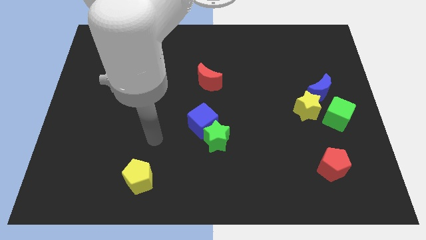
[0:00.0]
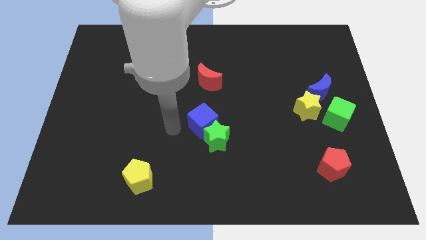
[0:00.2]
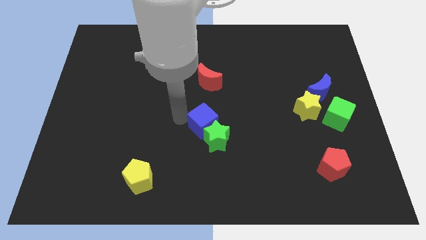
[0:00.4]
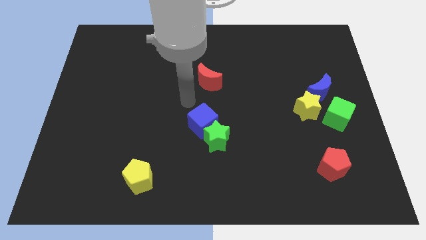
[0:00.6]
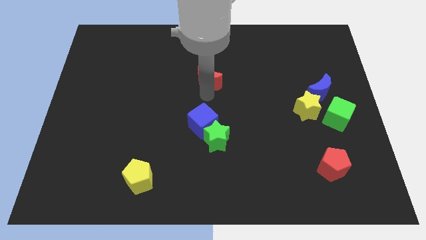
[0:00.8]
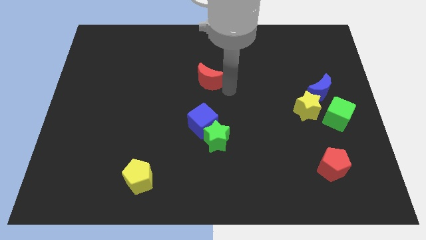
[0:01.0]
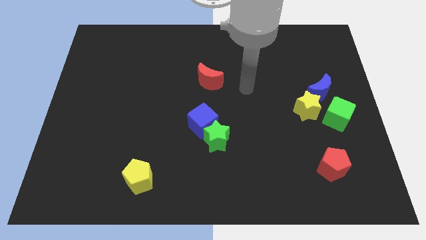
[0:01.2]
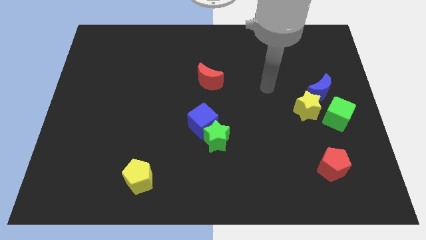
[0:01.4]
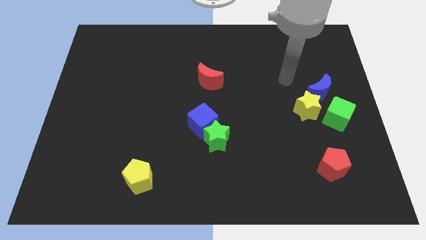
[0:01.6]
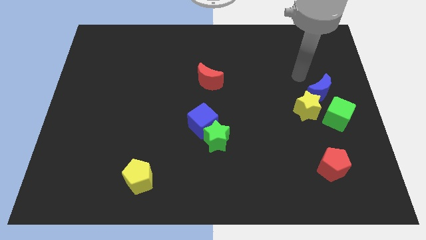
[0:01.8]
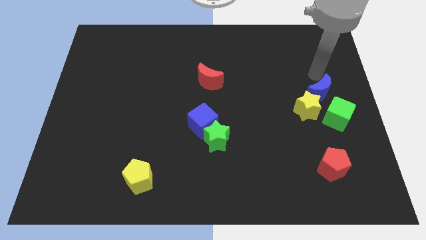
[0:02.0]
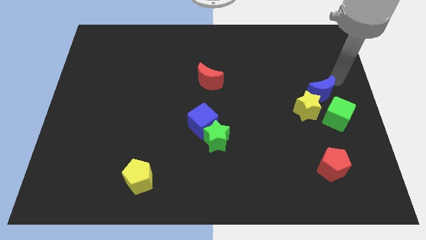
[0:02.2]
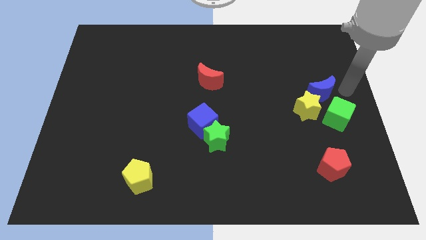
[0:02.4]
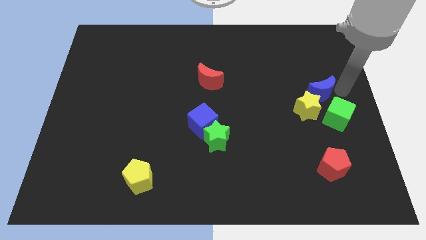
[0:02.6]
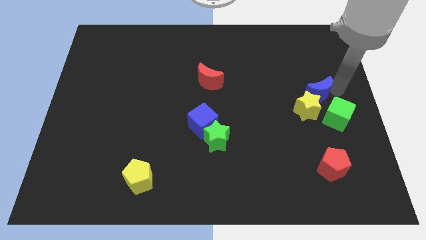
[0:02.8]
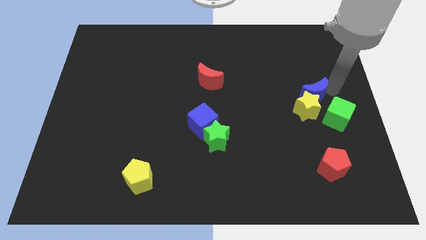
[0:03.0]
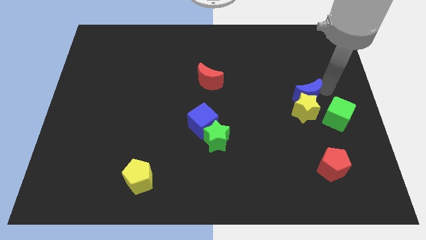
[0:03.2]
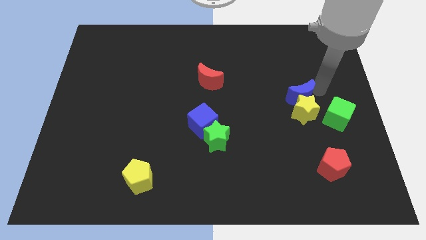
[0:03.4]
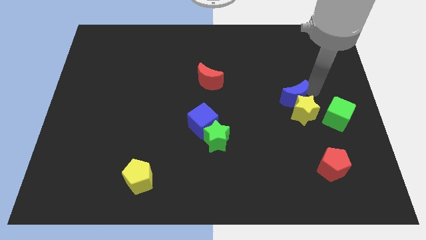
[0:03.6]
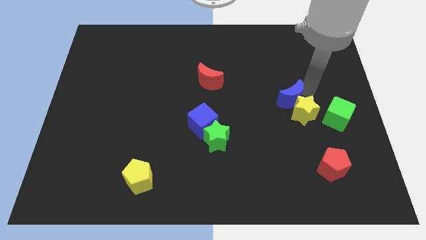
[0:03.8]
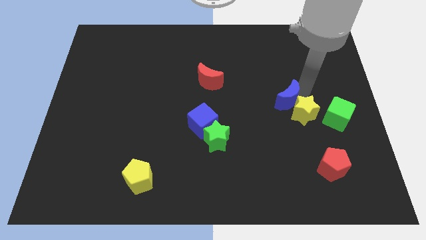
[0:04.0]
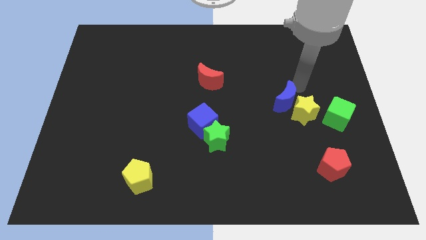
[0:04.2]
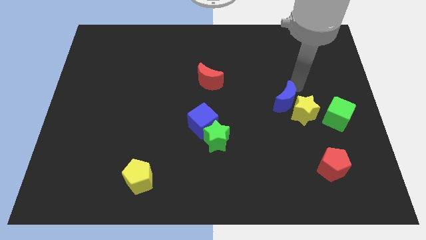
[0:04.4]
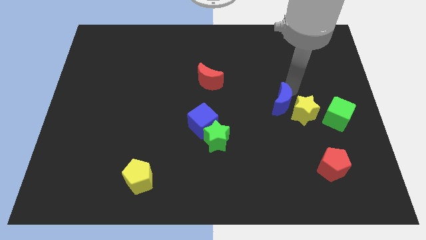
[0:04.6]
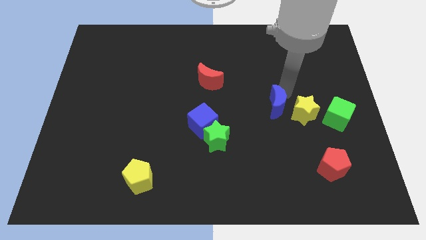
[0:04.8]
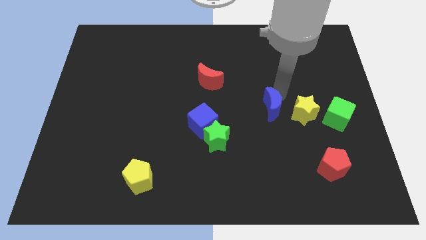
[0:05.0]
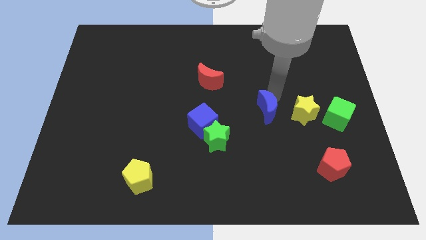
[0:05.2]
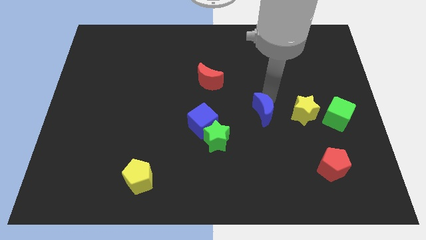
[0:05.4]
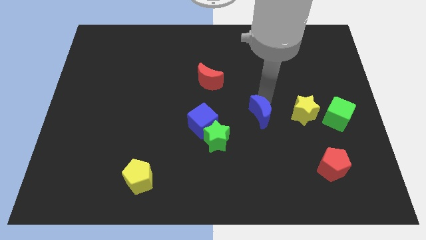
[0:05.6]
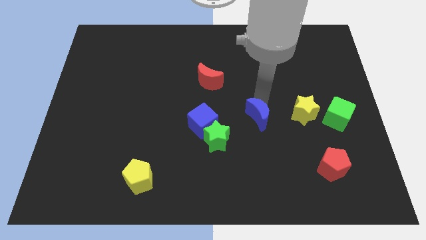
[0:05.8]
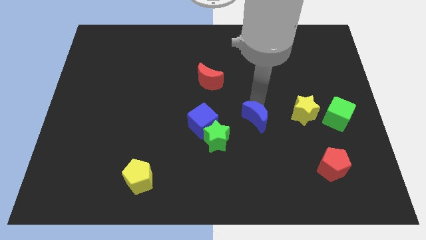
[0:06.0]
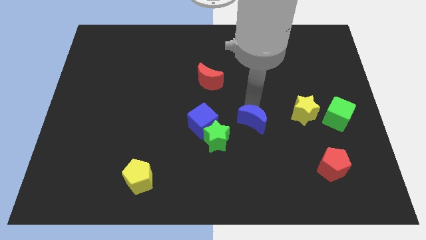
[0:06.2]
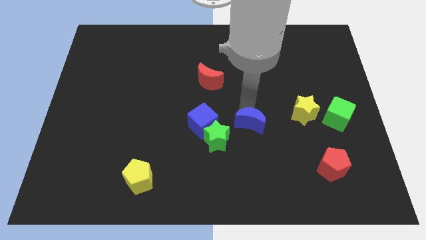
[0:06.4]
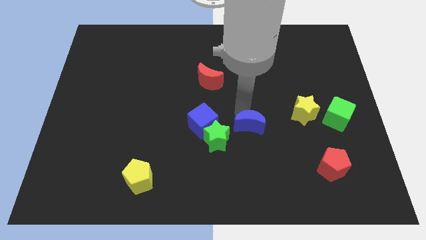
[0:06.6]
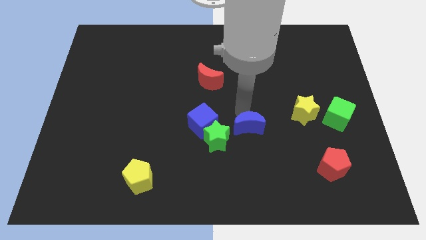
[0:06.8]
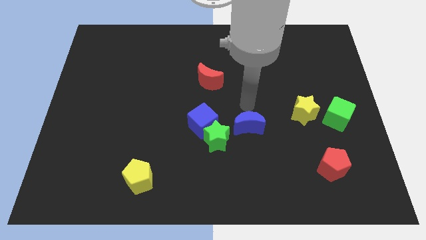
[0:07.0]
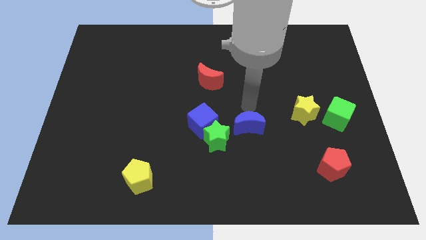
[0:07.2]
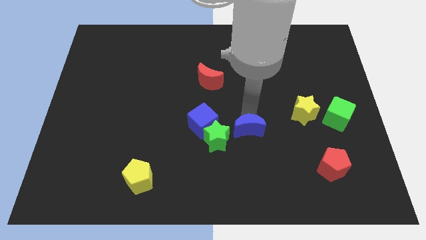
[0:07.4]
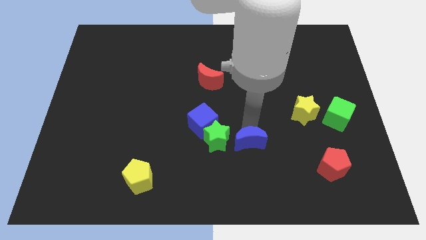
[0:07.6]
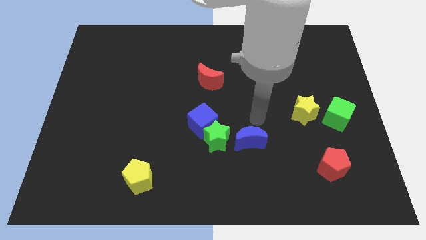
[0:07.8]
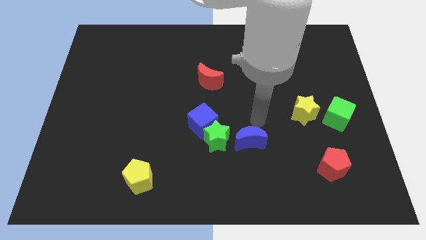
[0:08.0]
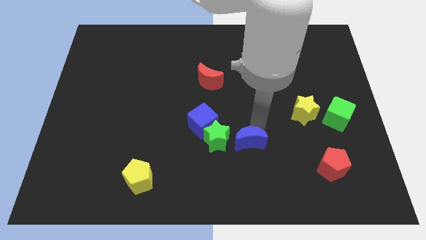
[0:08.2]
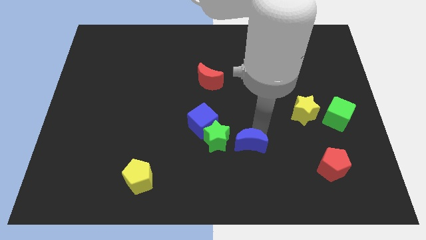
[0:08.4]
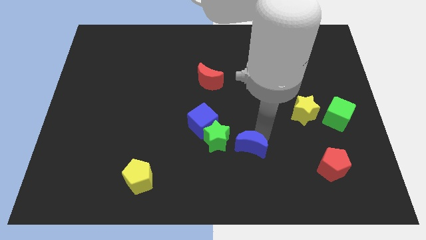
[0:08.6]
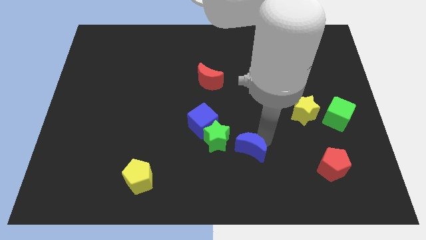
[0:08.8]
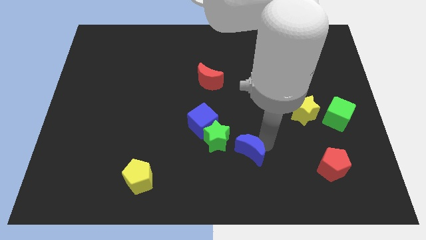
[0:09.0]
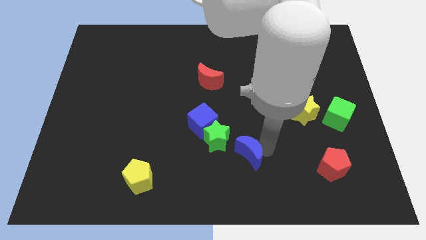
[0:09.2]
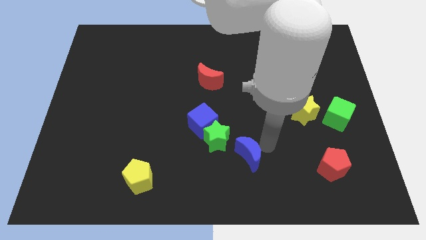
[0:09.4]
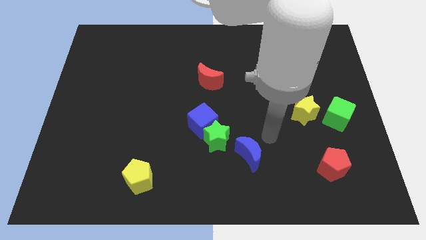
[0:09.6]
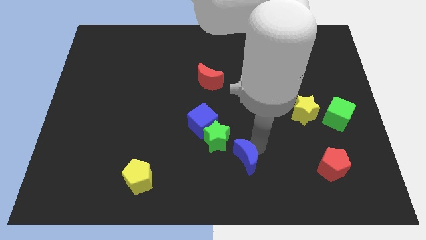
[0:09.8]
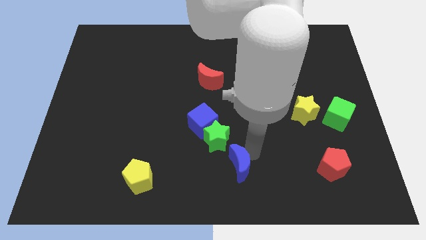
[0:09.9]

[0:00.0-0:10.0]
push the blue moon below the green star

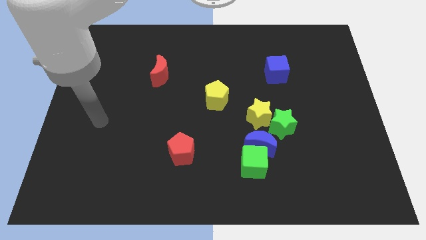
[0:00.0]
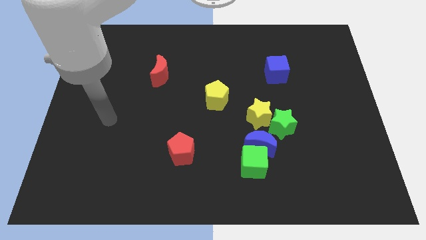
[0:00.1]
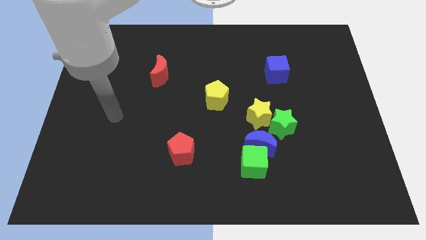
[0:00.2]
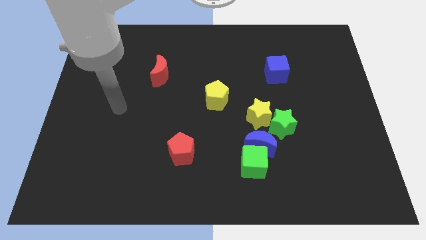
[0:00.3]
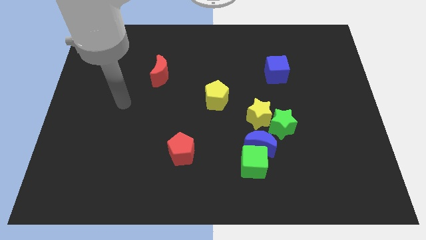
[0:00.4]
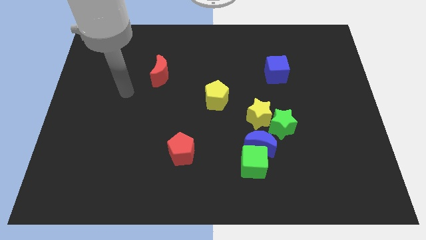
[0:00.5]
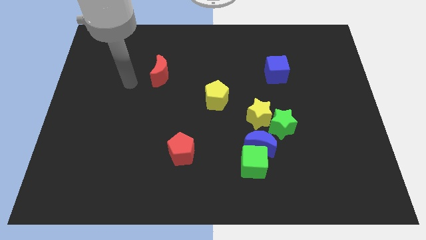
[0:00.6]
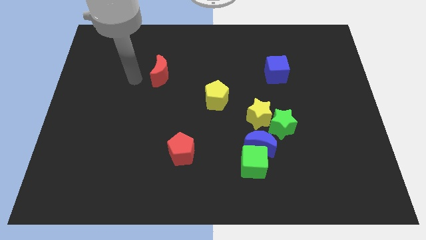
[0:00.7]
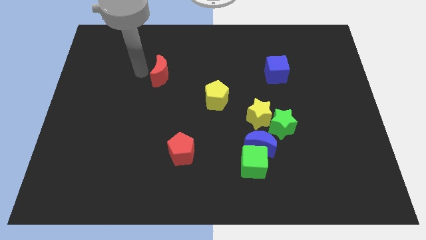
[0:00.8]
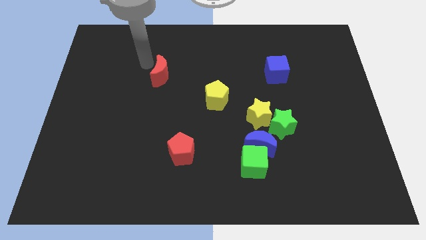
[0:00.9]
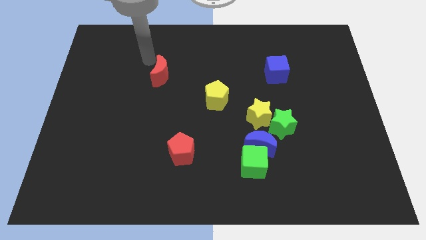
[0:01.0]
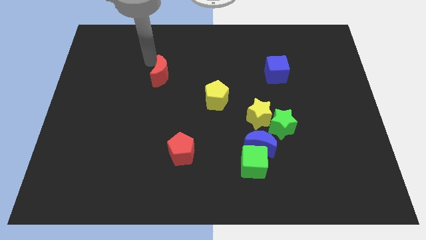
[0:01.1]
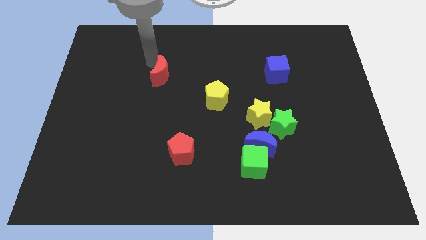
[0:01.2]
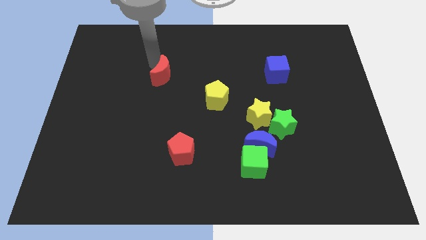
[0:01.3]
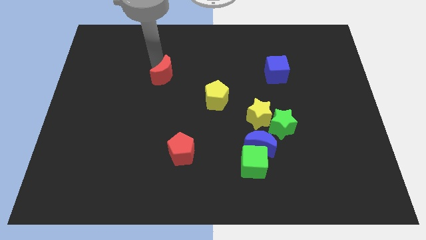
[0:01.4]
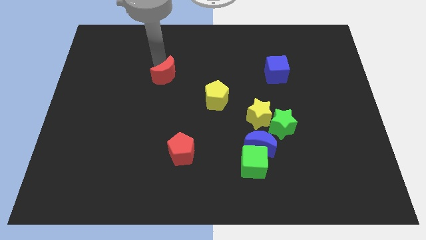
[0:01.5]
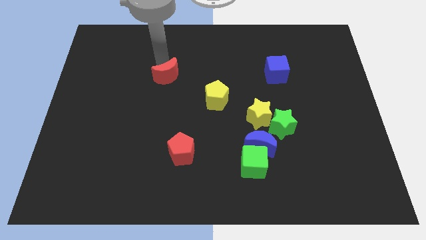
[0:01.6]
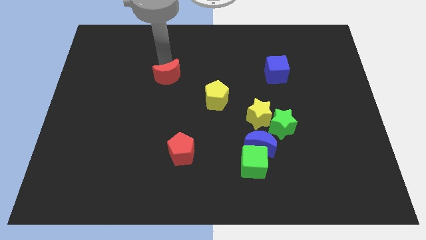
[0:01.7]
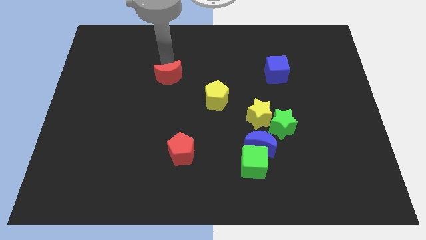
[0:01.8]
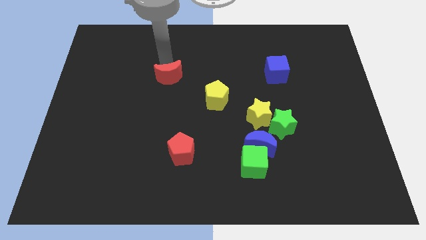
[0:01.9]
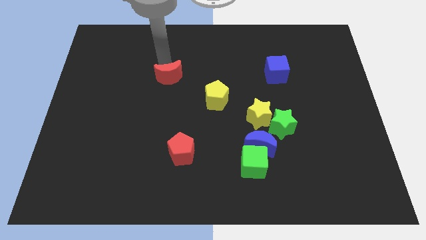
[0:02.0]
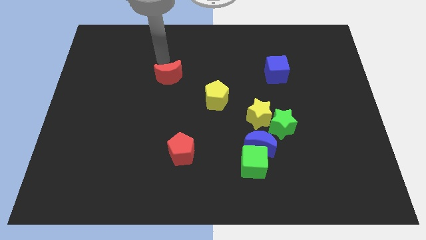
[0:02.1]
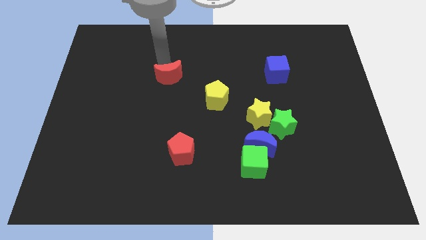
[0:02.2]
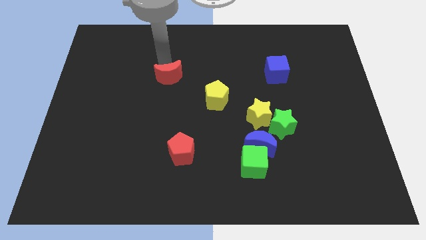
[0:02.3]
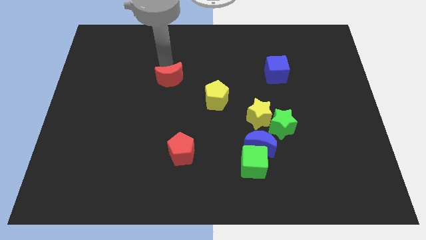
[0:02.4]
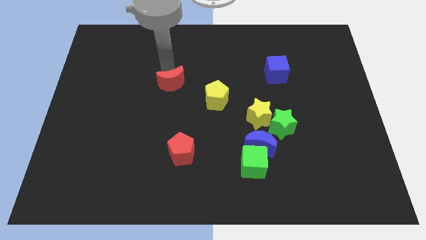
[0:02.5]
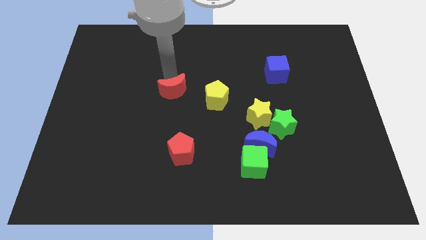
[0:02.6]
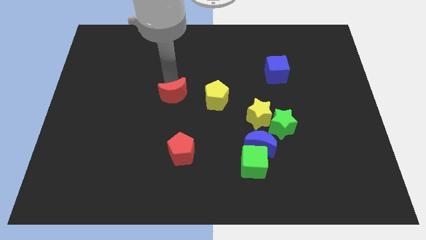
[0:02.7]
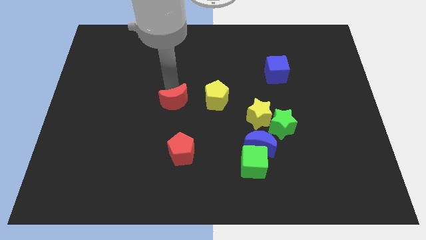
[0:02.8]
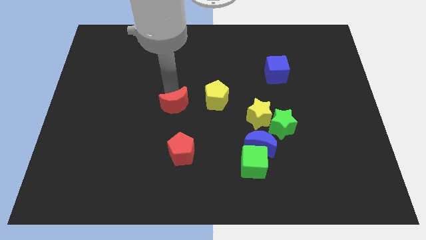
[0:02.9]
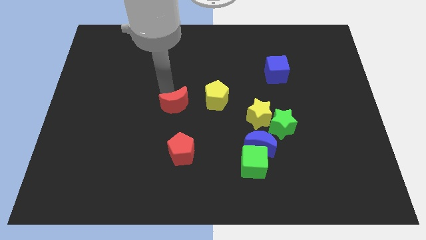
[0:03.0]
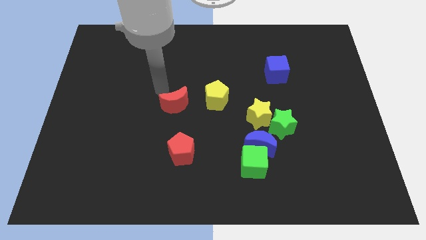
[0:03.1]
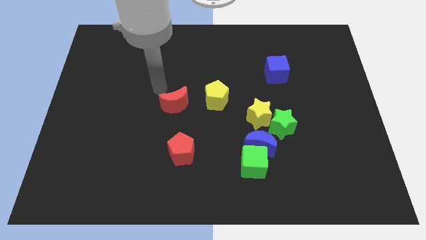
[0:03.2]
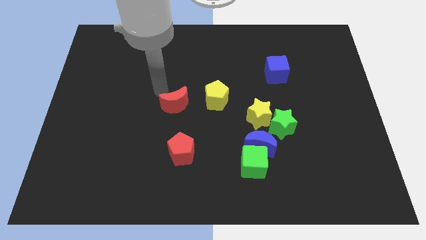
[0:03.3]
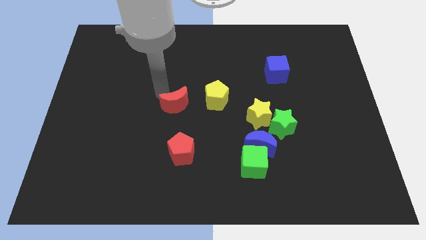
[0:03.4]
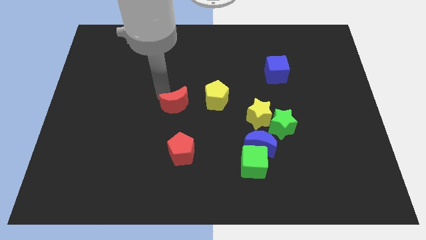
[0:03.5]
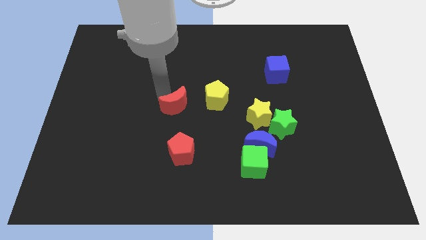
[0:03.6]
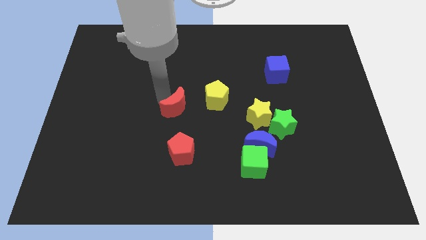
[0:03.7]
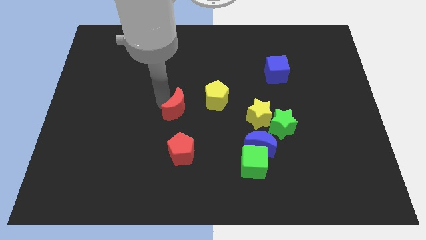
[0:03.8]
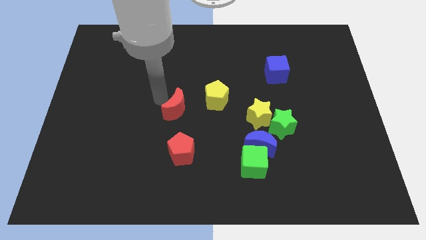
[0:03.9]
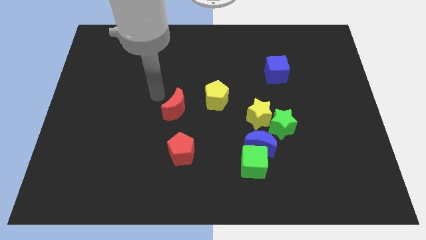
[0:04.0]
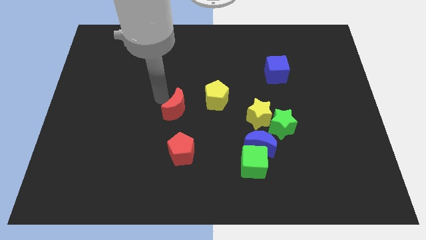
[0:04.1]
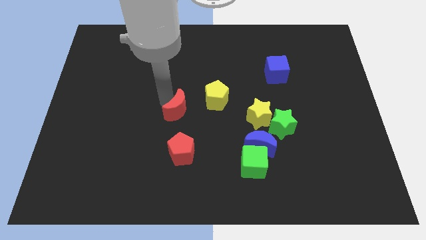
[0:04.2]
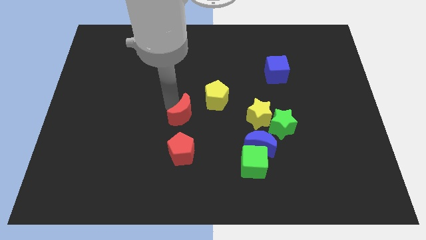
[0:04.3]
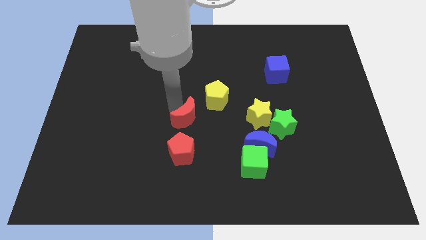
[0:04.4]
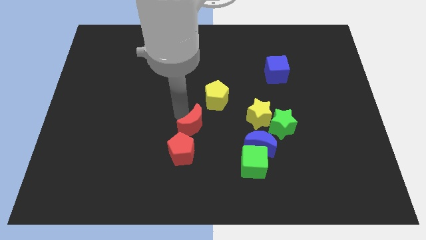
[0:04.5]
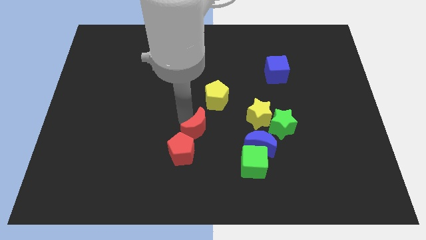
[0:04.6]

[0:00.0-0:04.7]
move the red moon to the bottom side of the yellow pentagon
